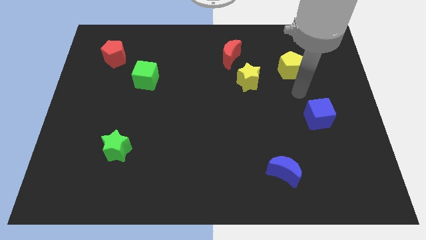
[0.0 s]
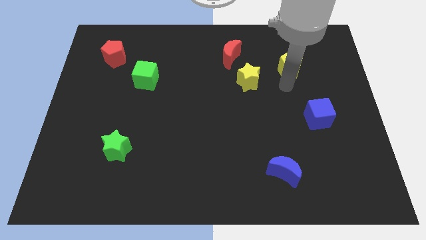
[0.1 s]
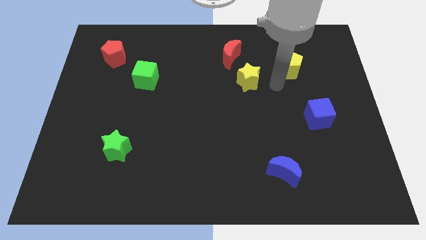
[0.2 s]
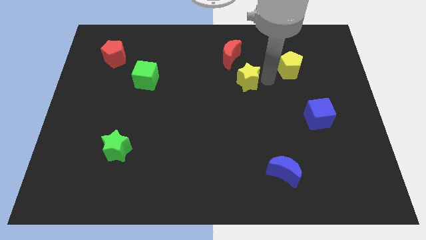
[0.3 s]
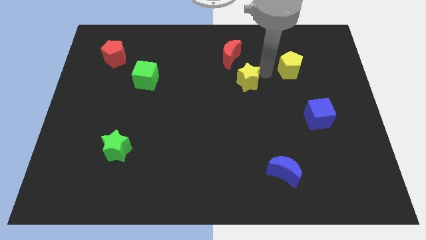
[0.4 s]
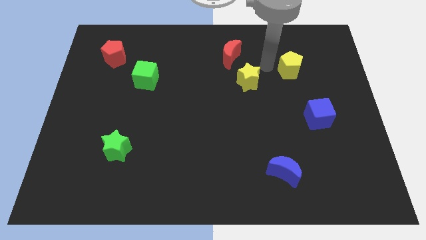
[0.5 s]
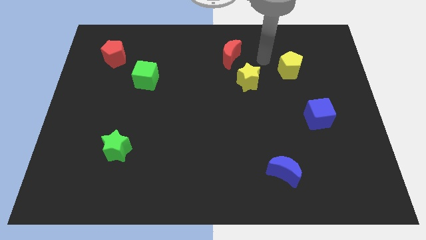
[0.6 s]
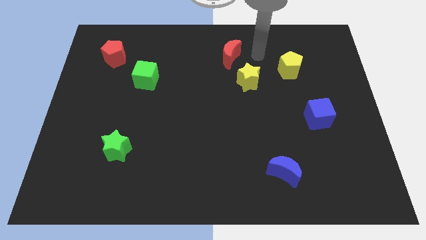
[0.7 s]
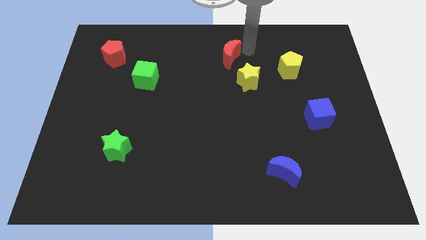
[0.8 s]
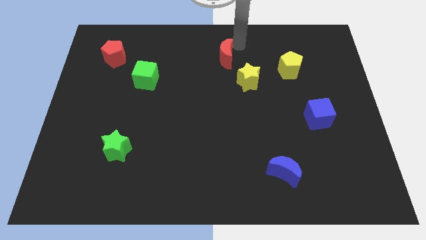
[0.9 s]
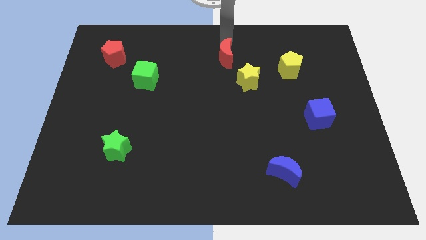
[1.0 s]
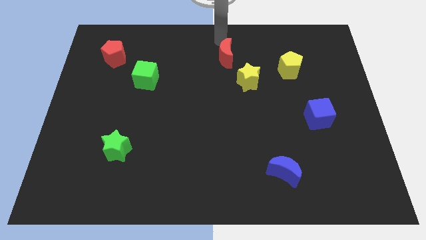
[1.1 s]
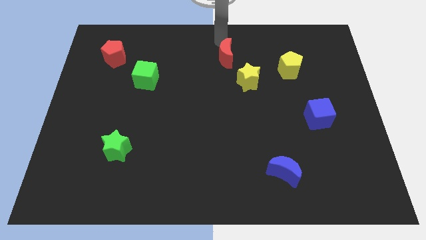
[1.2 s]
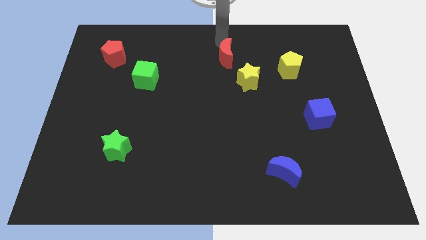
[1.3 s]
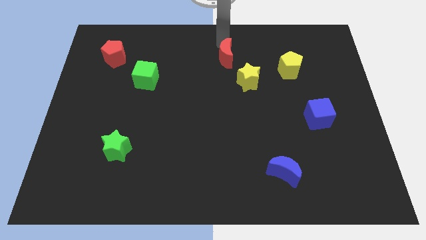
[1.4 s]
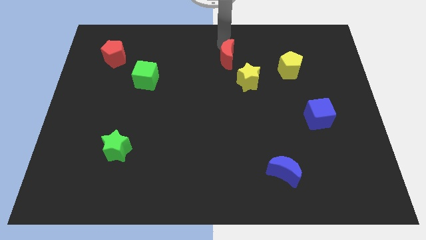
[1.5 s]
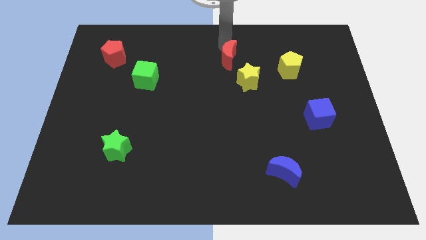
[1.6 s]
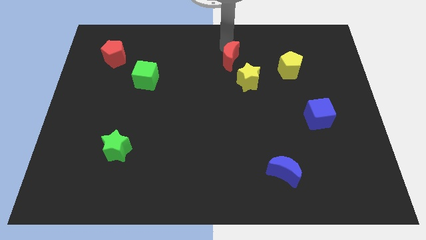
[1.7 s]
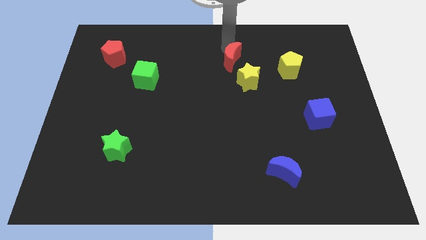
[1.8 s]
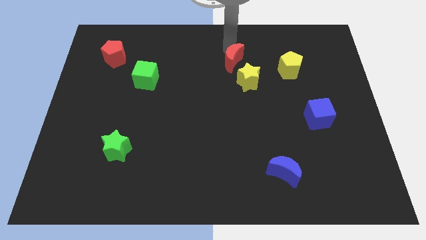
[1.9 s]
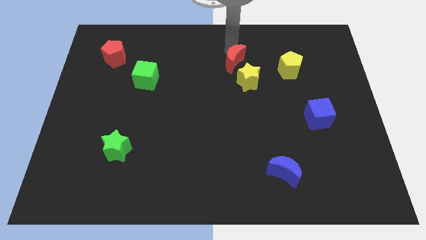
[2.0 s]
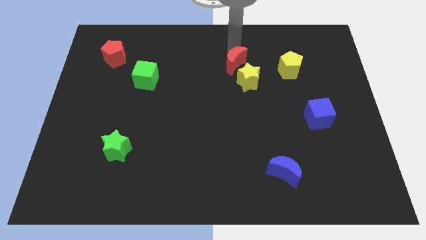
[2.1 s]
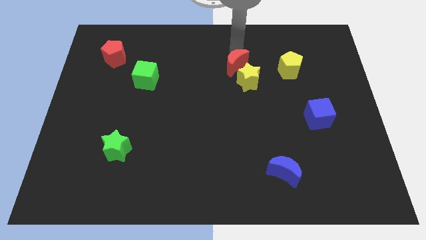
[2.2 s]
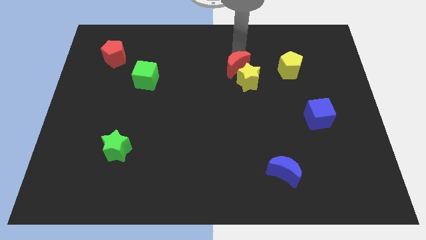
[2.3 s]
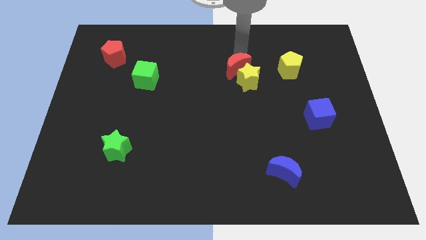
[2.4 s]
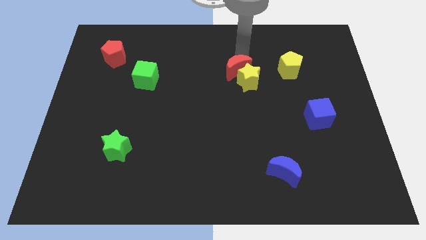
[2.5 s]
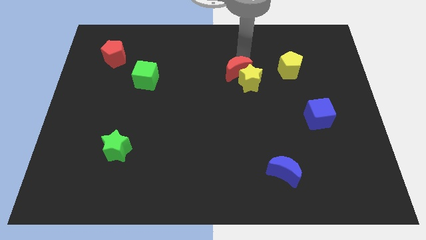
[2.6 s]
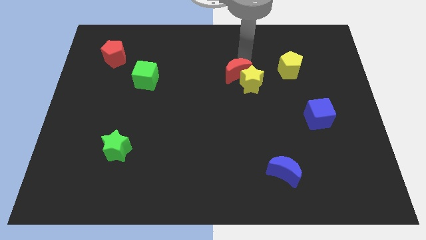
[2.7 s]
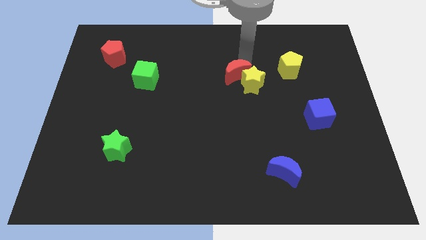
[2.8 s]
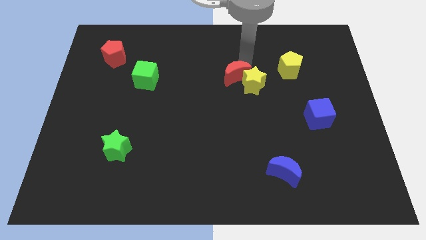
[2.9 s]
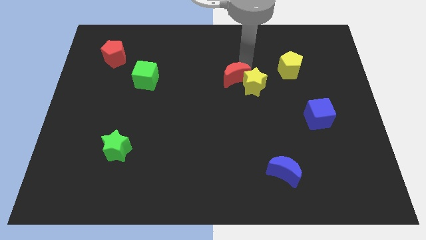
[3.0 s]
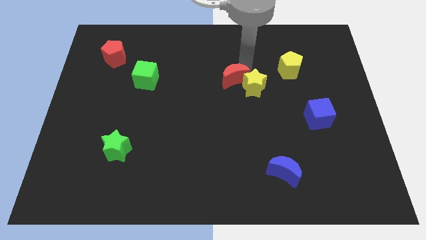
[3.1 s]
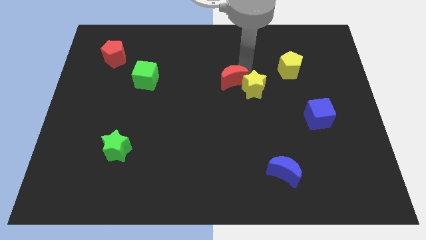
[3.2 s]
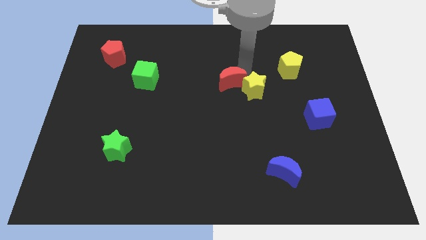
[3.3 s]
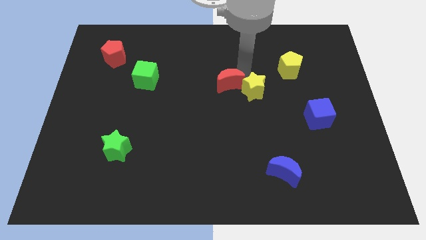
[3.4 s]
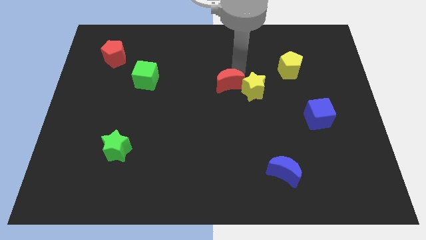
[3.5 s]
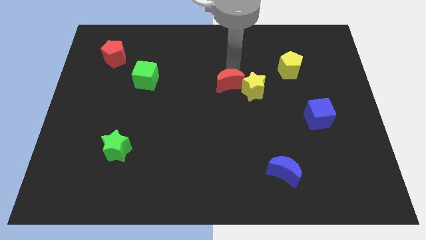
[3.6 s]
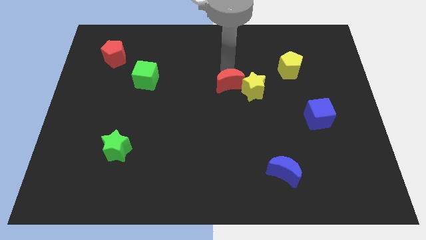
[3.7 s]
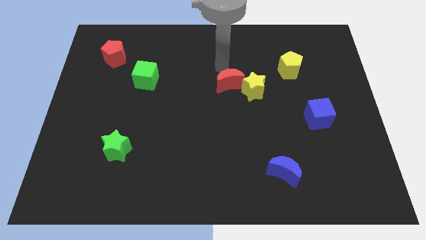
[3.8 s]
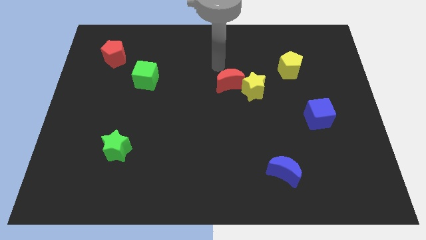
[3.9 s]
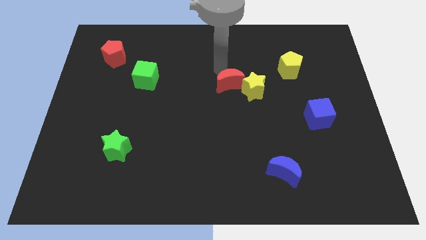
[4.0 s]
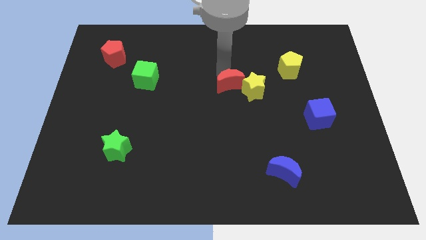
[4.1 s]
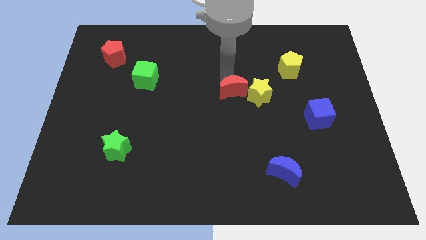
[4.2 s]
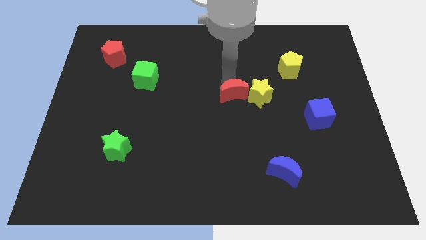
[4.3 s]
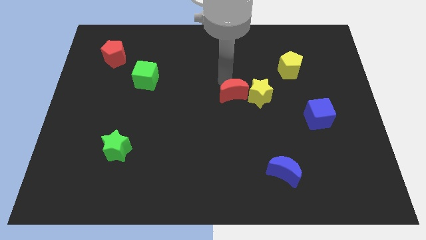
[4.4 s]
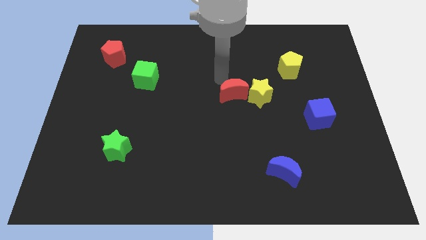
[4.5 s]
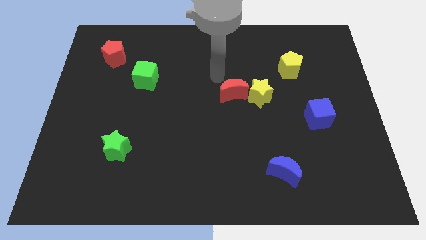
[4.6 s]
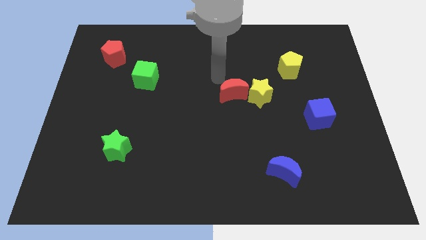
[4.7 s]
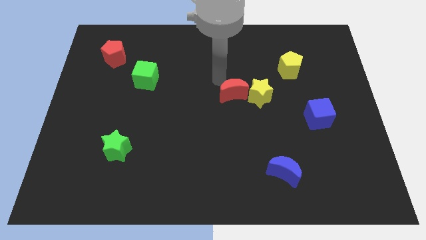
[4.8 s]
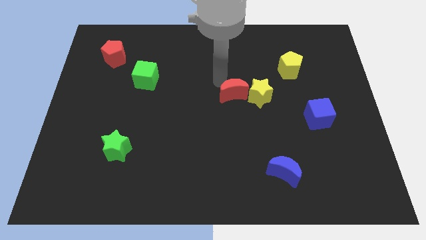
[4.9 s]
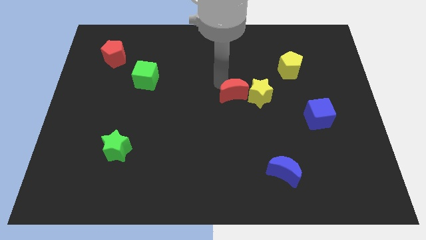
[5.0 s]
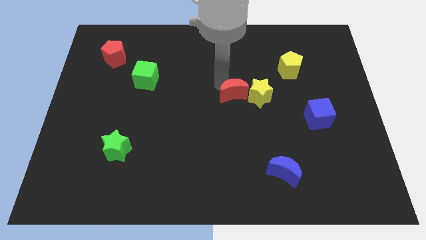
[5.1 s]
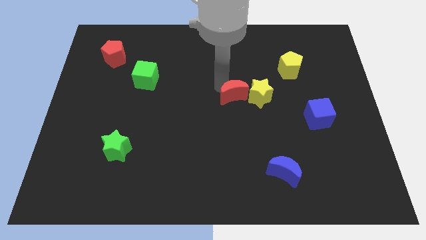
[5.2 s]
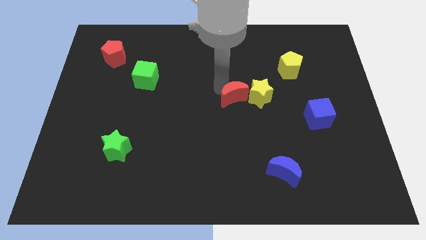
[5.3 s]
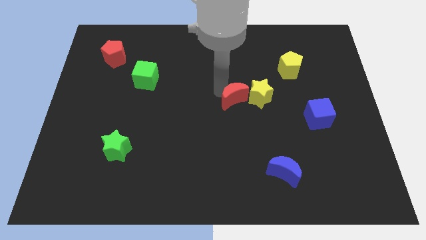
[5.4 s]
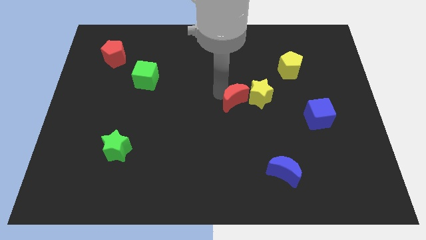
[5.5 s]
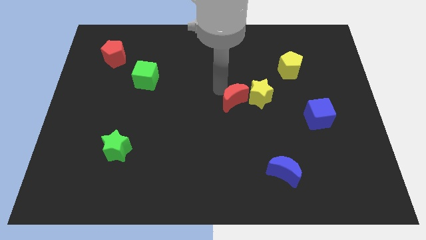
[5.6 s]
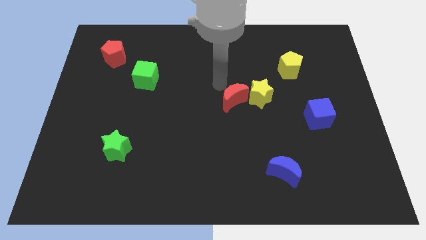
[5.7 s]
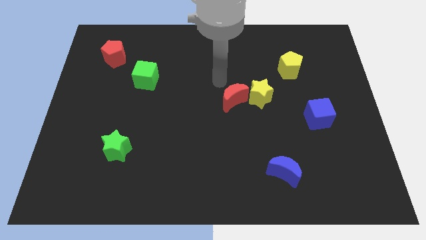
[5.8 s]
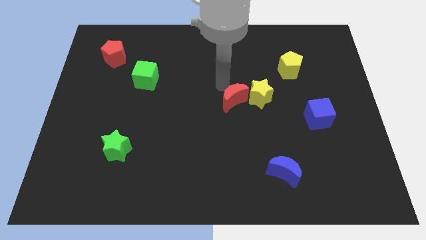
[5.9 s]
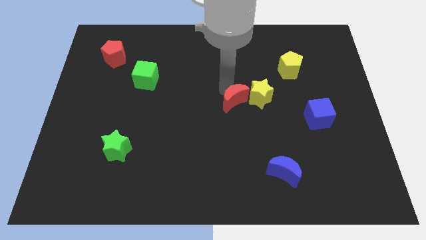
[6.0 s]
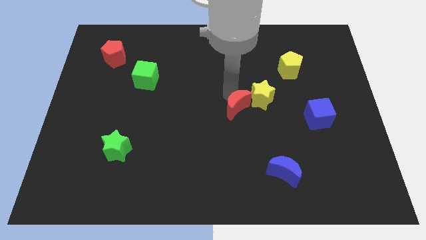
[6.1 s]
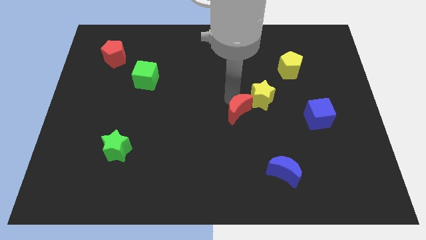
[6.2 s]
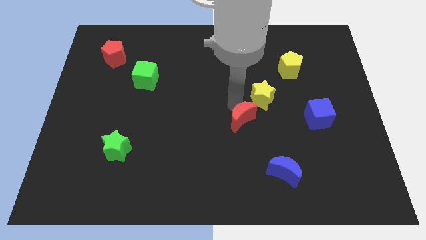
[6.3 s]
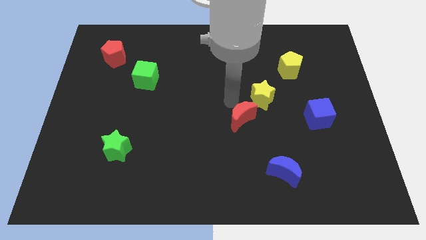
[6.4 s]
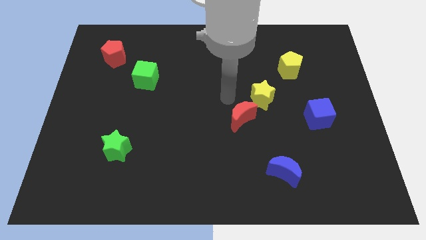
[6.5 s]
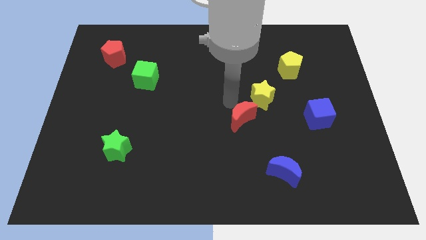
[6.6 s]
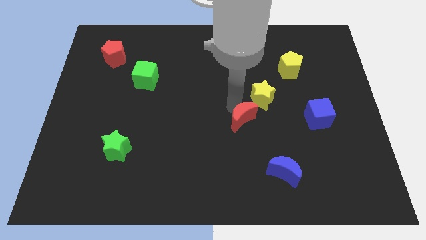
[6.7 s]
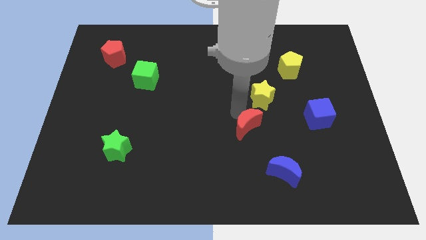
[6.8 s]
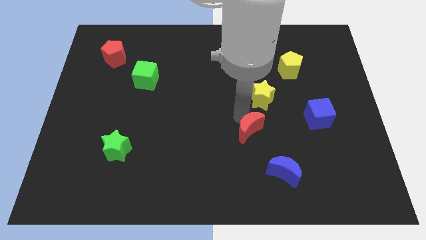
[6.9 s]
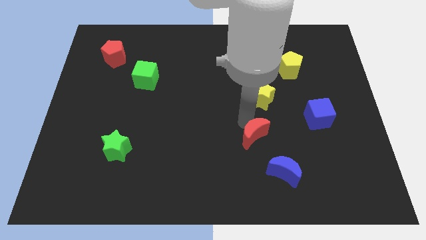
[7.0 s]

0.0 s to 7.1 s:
slide the red moon to the top left side of the blue moon
